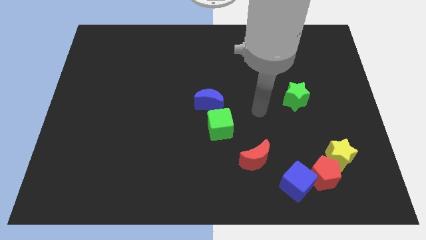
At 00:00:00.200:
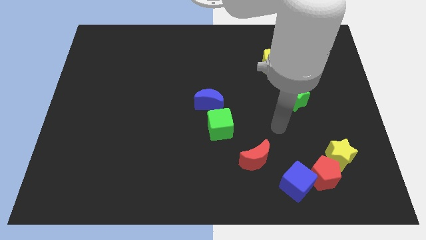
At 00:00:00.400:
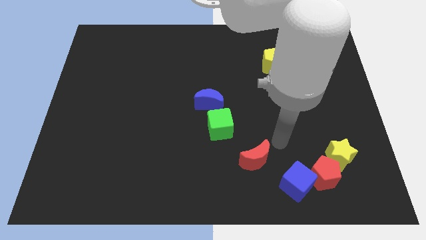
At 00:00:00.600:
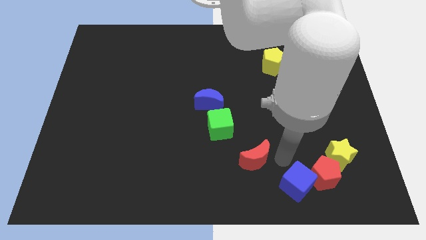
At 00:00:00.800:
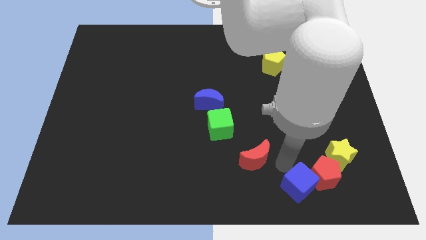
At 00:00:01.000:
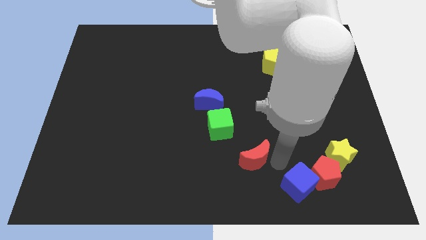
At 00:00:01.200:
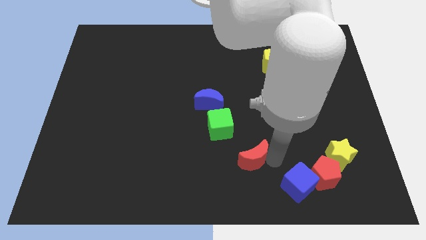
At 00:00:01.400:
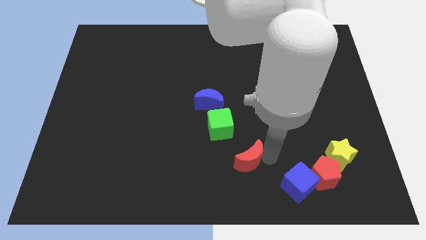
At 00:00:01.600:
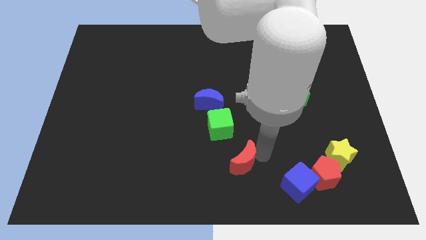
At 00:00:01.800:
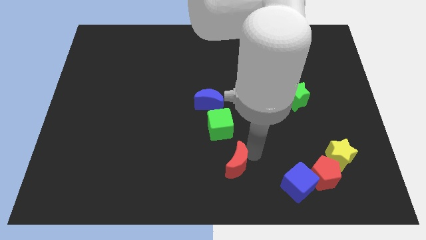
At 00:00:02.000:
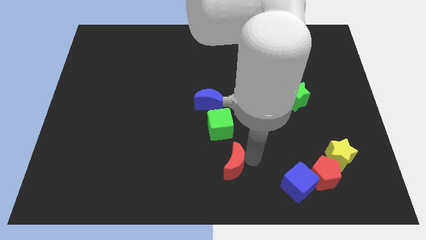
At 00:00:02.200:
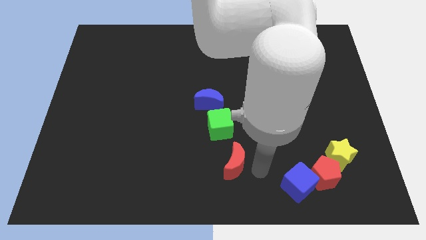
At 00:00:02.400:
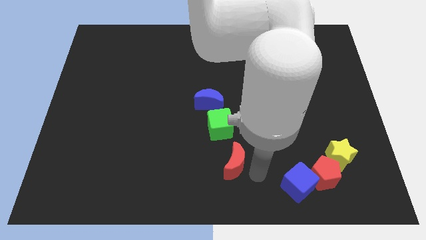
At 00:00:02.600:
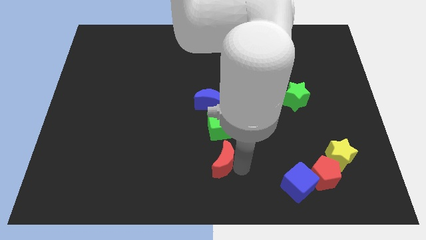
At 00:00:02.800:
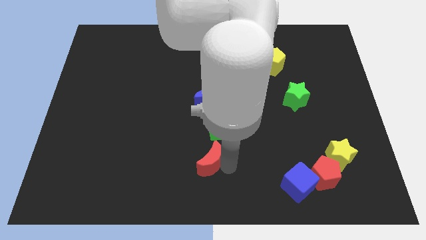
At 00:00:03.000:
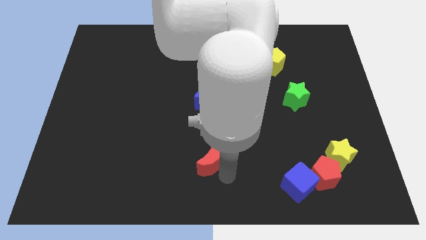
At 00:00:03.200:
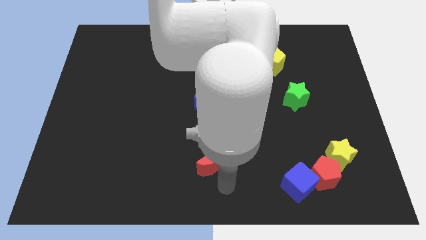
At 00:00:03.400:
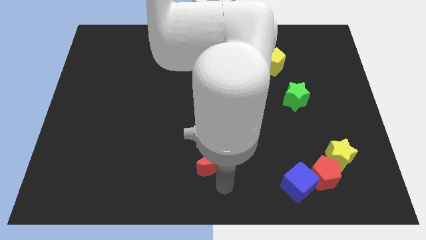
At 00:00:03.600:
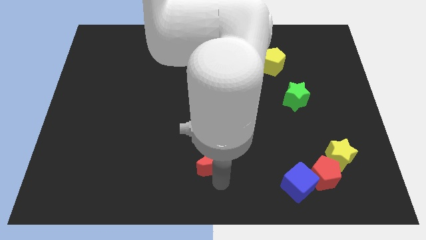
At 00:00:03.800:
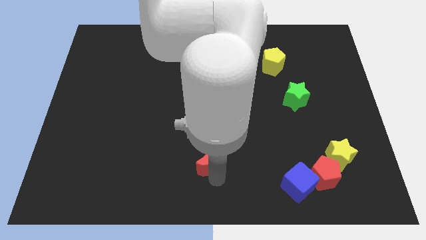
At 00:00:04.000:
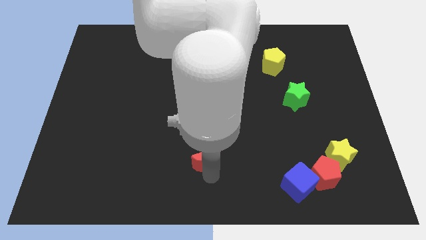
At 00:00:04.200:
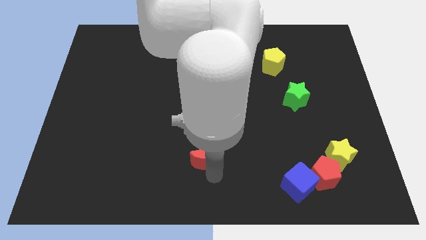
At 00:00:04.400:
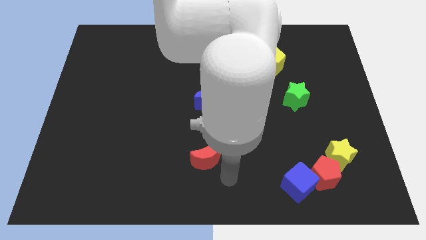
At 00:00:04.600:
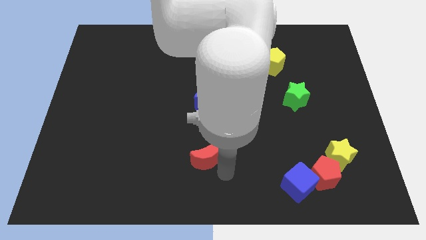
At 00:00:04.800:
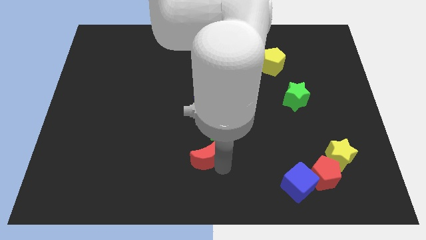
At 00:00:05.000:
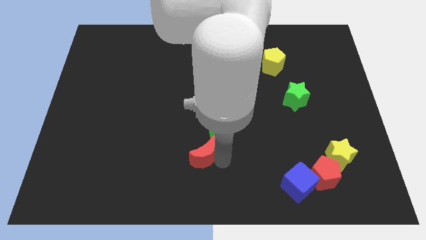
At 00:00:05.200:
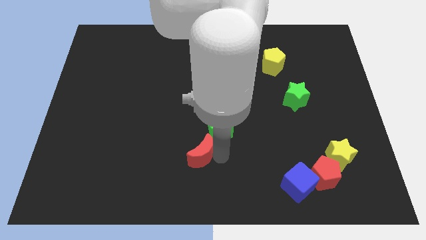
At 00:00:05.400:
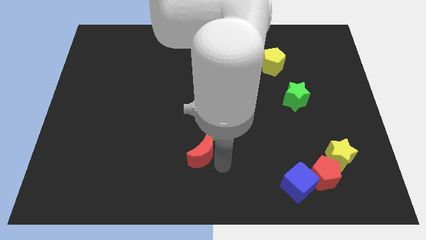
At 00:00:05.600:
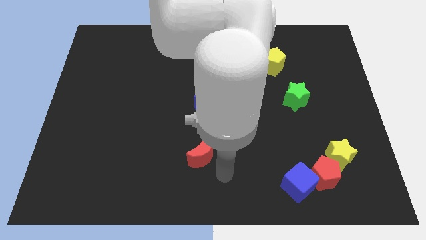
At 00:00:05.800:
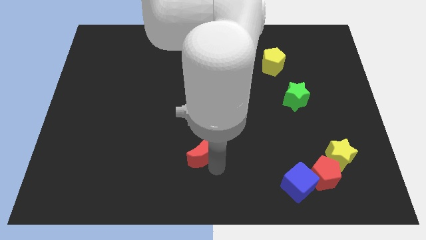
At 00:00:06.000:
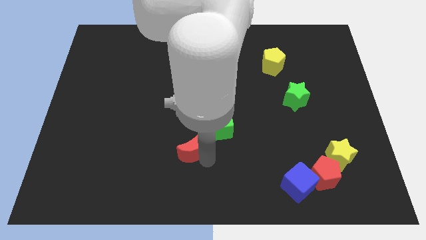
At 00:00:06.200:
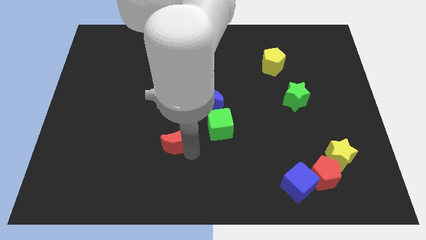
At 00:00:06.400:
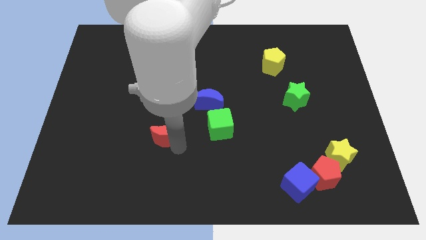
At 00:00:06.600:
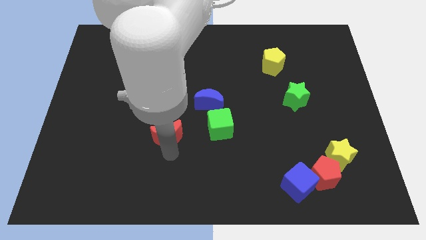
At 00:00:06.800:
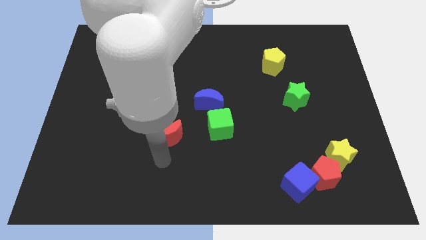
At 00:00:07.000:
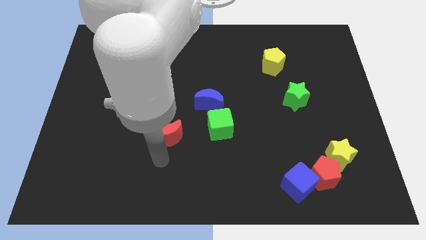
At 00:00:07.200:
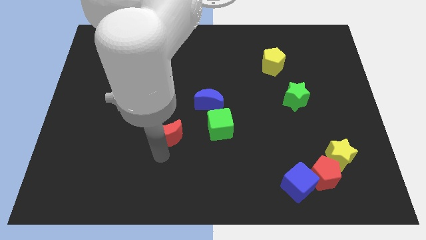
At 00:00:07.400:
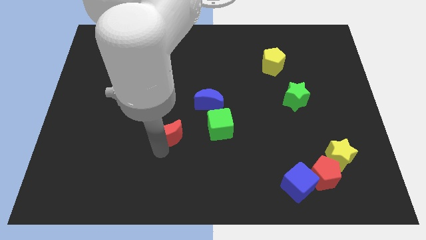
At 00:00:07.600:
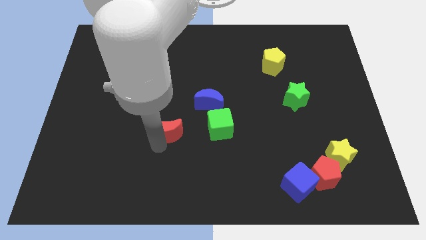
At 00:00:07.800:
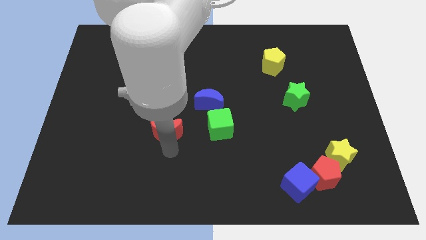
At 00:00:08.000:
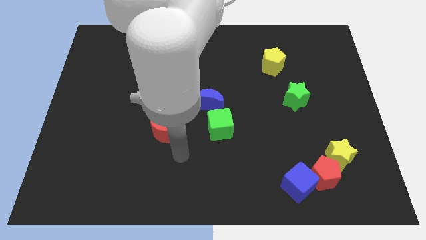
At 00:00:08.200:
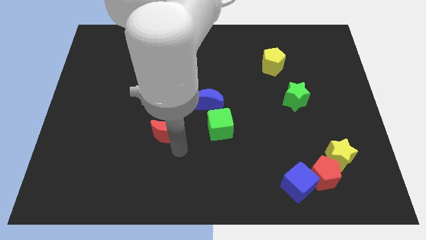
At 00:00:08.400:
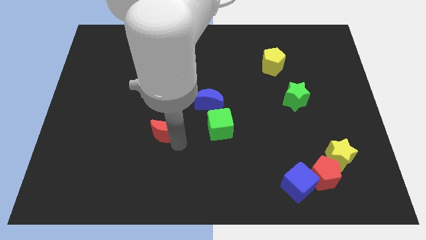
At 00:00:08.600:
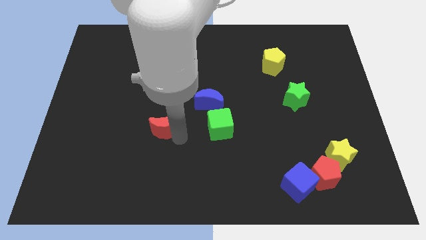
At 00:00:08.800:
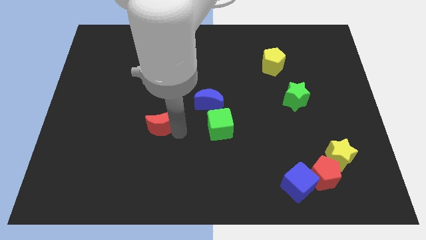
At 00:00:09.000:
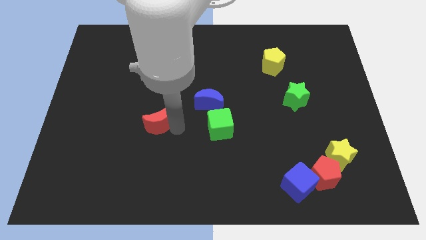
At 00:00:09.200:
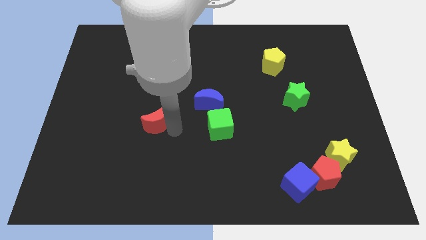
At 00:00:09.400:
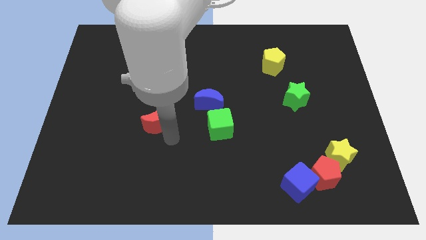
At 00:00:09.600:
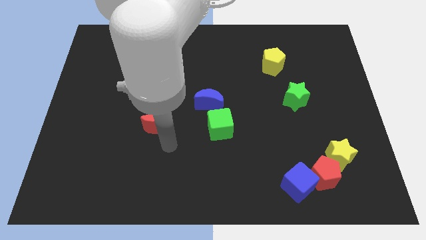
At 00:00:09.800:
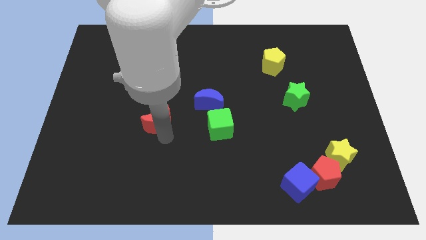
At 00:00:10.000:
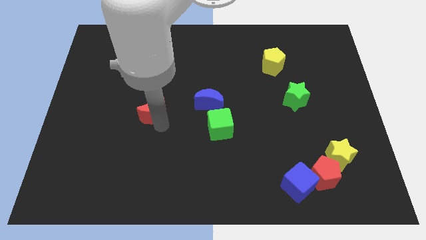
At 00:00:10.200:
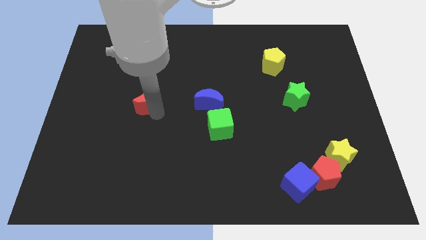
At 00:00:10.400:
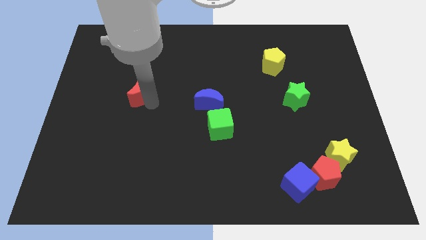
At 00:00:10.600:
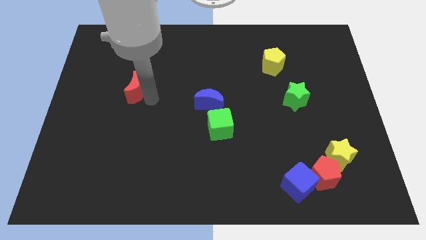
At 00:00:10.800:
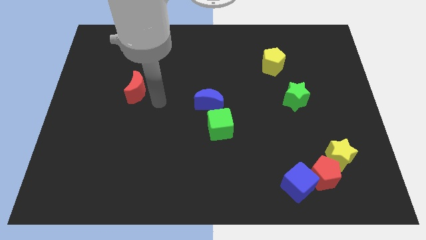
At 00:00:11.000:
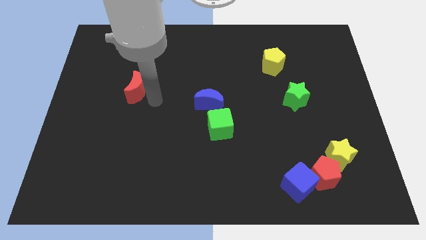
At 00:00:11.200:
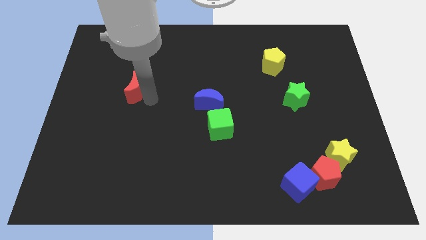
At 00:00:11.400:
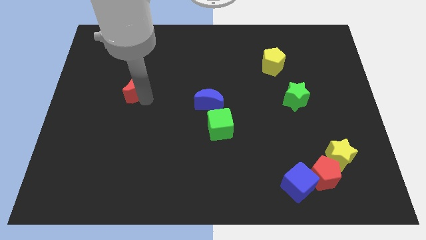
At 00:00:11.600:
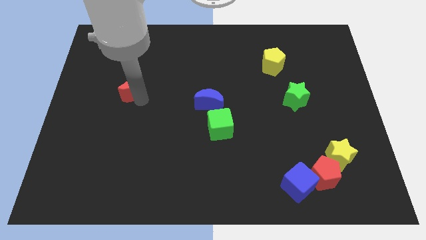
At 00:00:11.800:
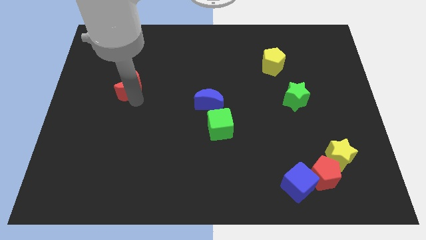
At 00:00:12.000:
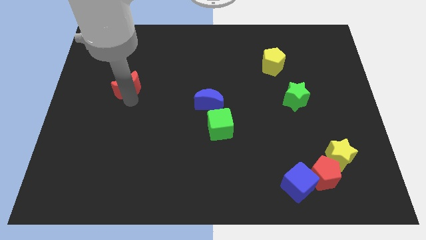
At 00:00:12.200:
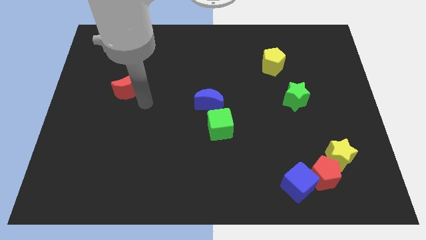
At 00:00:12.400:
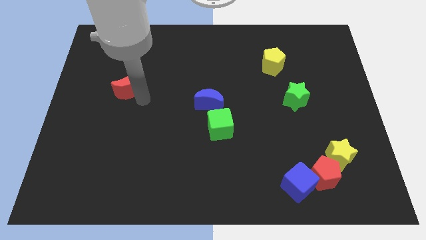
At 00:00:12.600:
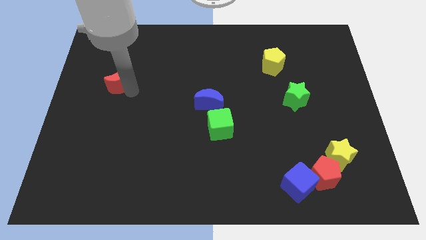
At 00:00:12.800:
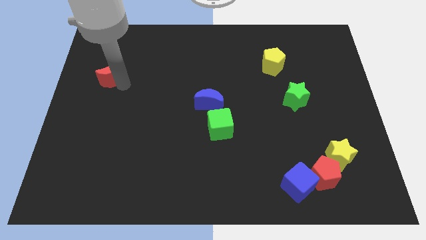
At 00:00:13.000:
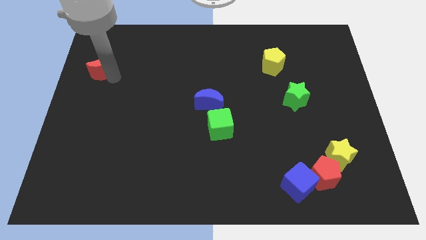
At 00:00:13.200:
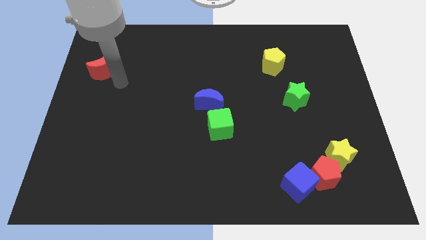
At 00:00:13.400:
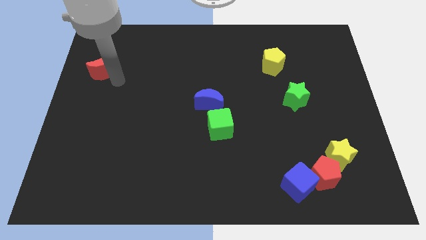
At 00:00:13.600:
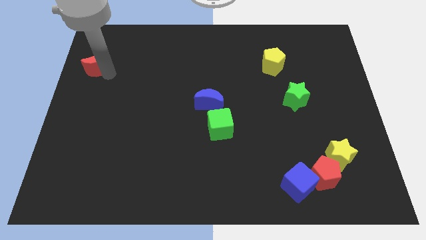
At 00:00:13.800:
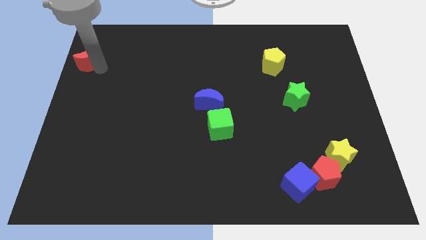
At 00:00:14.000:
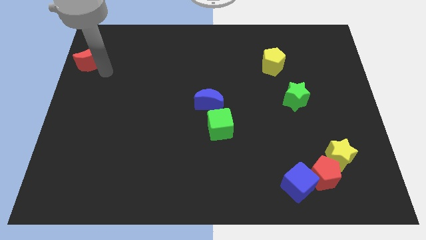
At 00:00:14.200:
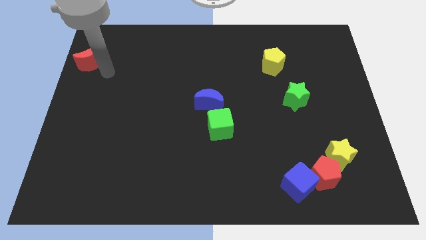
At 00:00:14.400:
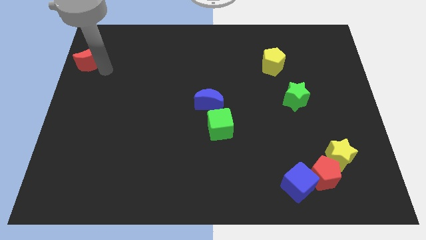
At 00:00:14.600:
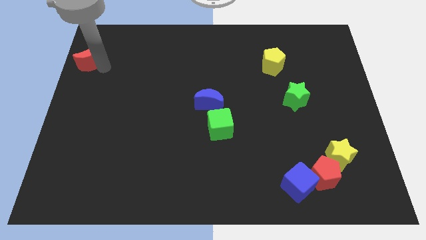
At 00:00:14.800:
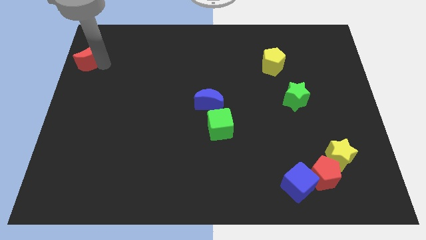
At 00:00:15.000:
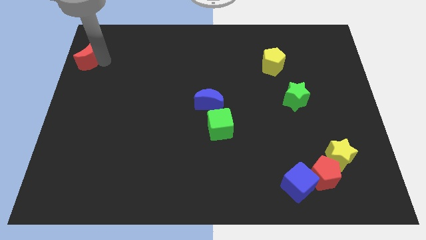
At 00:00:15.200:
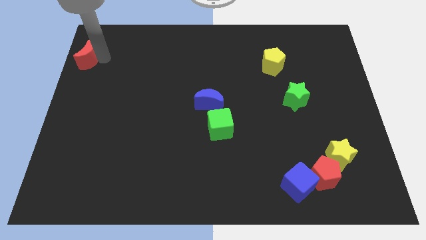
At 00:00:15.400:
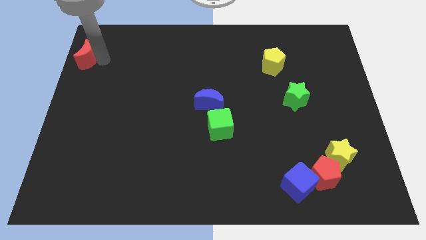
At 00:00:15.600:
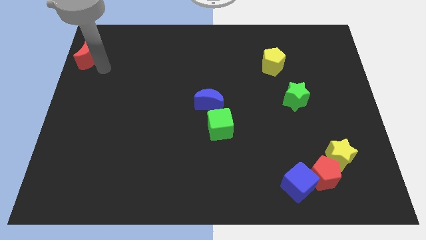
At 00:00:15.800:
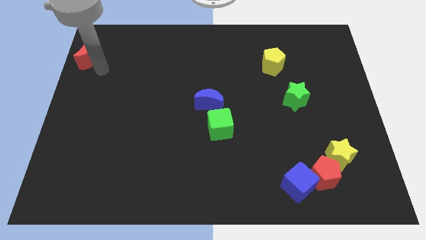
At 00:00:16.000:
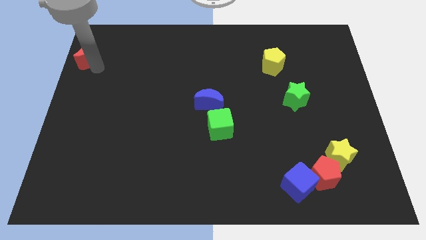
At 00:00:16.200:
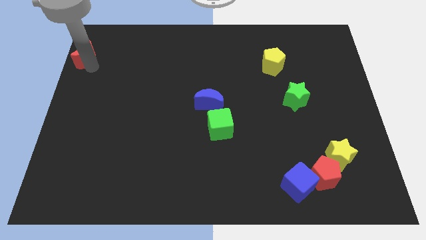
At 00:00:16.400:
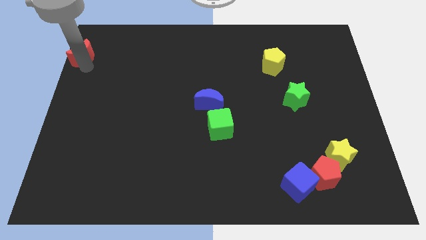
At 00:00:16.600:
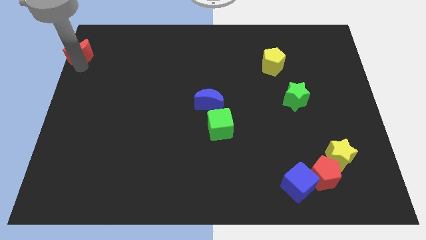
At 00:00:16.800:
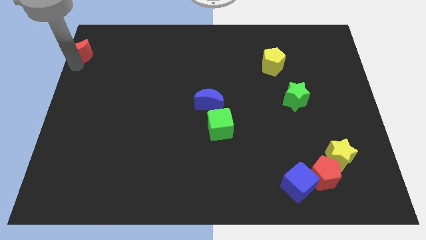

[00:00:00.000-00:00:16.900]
put the red moon to the top left corner
